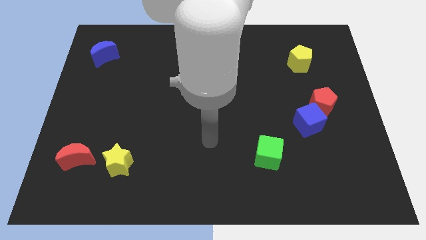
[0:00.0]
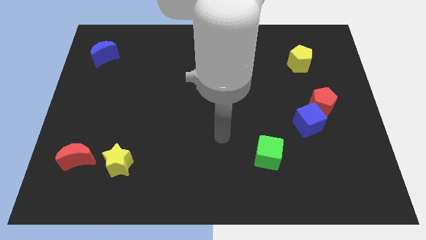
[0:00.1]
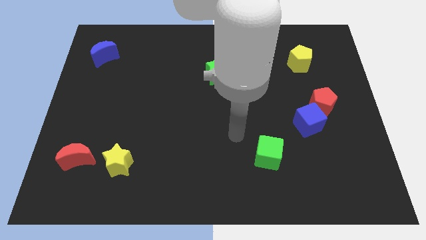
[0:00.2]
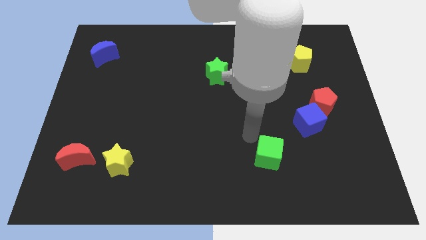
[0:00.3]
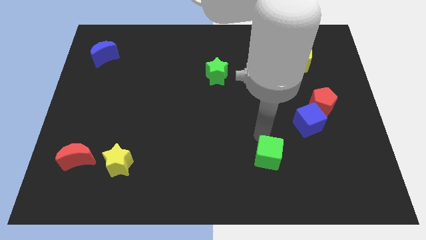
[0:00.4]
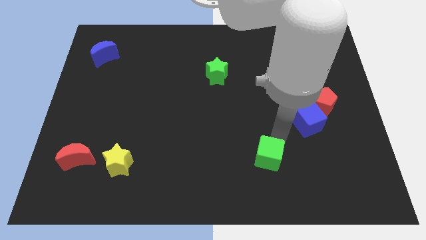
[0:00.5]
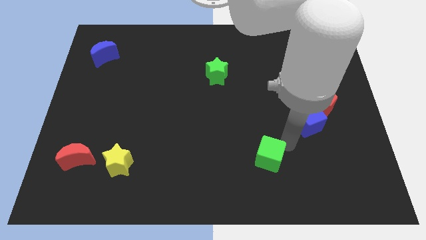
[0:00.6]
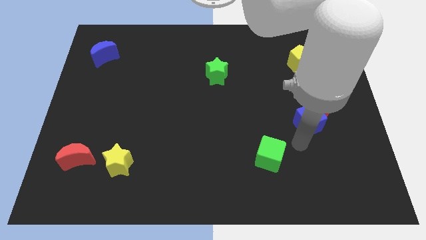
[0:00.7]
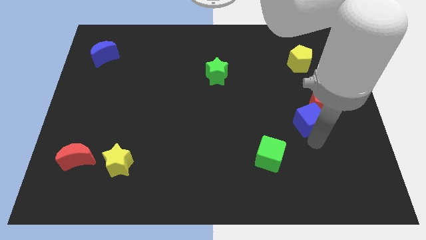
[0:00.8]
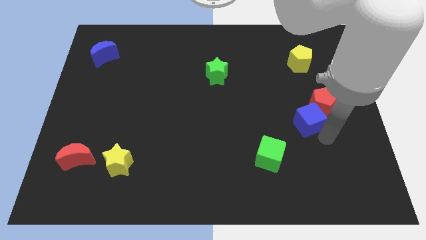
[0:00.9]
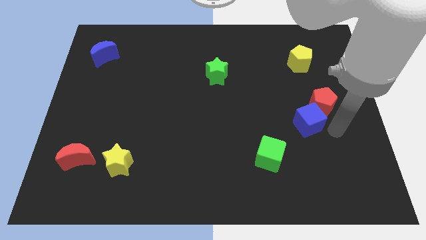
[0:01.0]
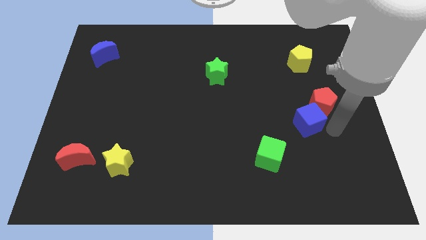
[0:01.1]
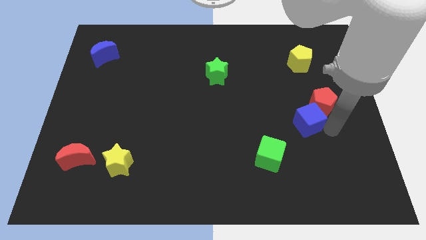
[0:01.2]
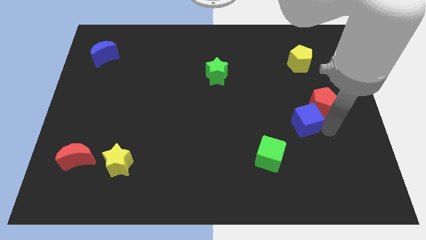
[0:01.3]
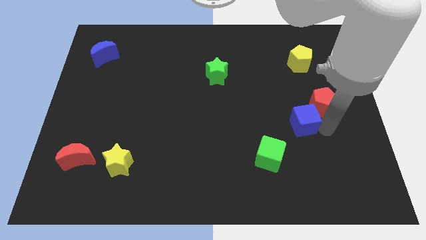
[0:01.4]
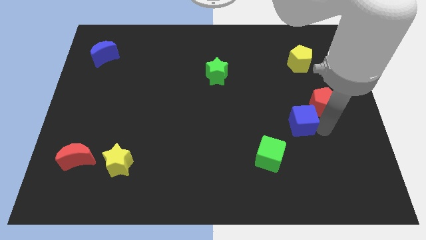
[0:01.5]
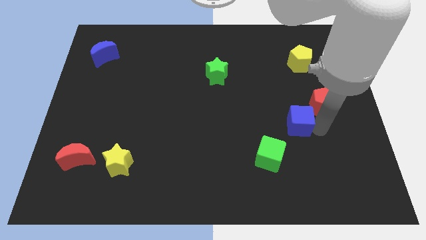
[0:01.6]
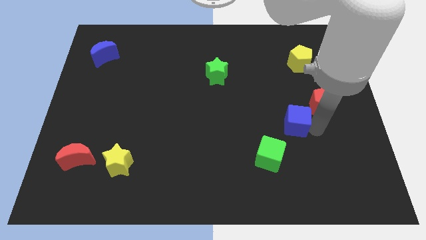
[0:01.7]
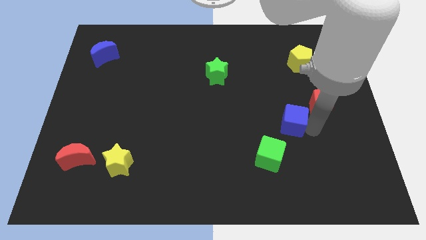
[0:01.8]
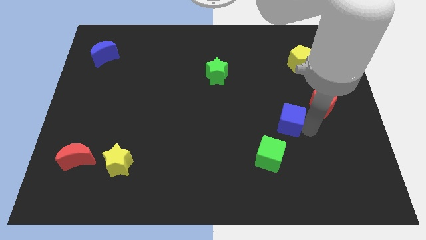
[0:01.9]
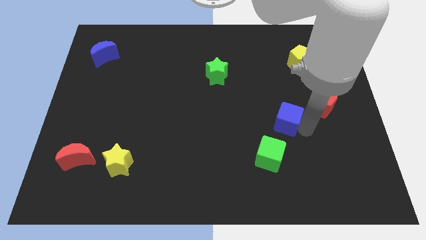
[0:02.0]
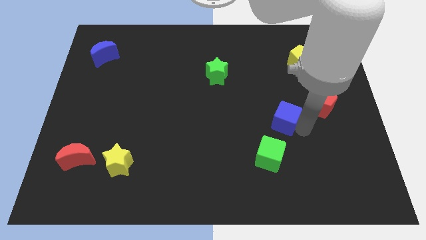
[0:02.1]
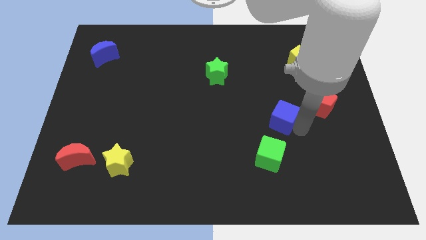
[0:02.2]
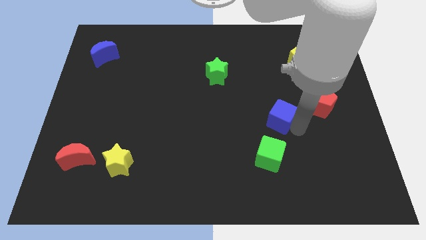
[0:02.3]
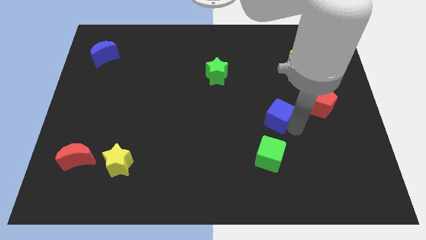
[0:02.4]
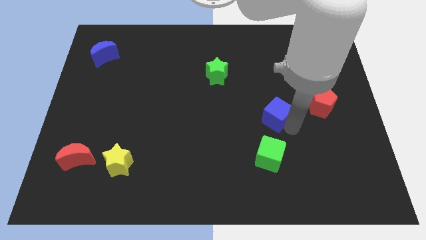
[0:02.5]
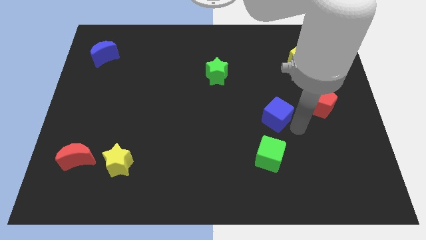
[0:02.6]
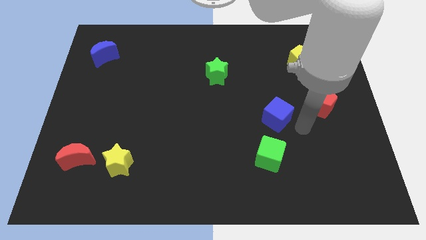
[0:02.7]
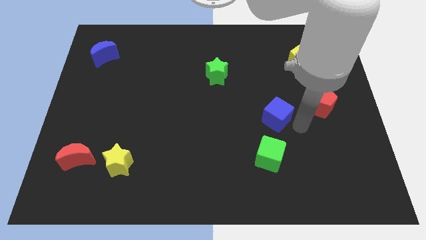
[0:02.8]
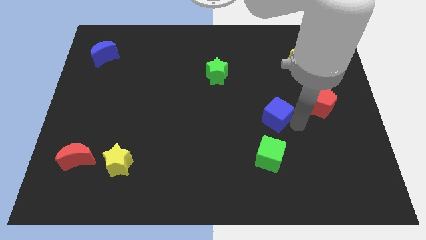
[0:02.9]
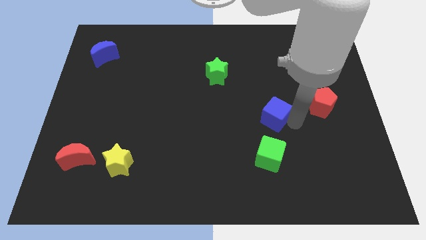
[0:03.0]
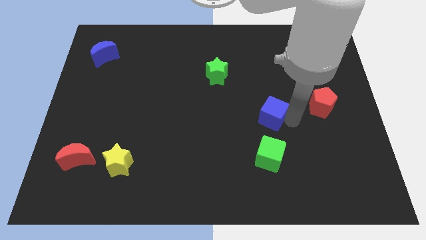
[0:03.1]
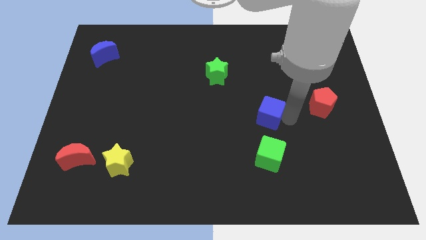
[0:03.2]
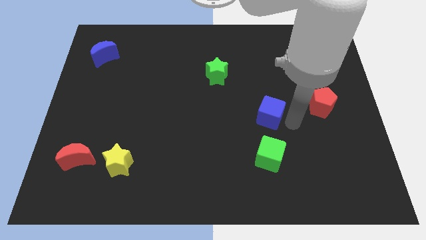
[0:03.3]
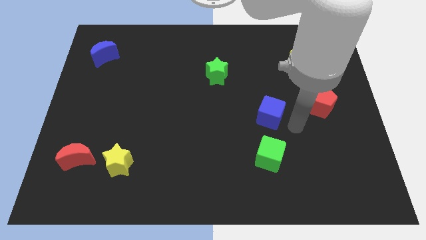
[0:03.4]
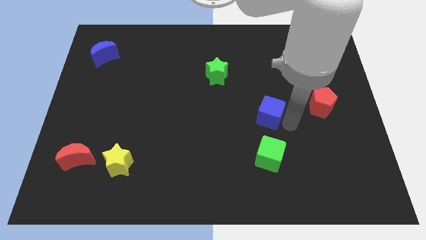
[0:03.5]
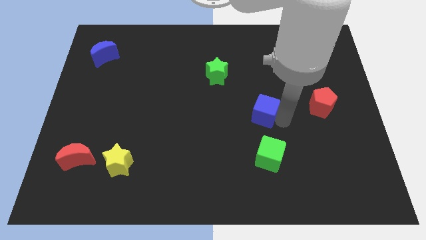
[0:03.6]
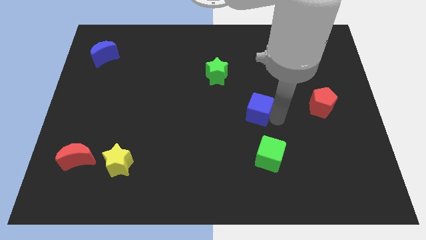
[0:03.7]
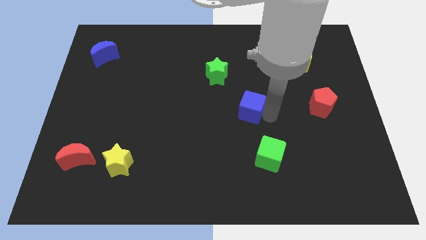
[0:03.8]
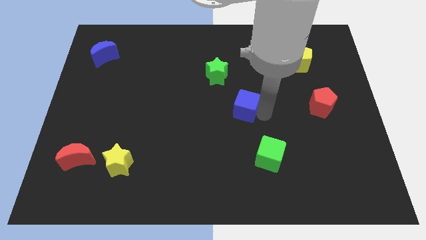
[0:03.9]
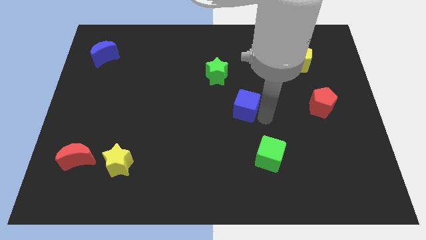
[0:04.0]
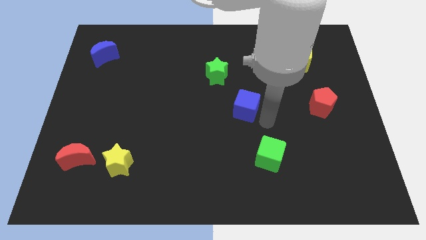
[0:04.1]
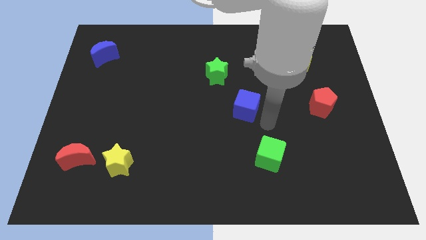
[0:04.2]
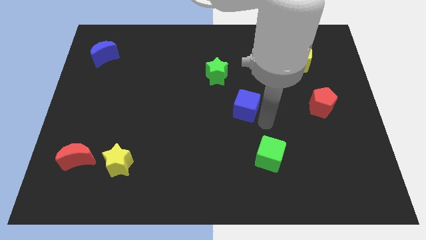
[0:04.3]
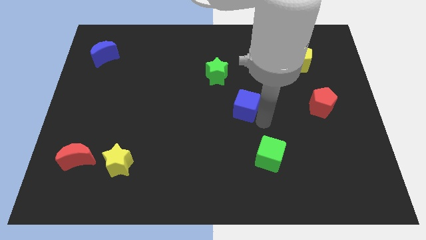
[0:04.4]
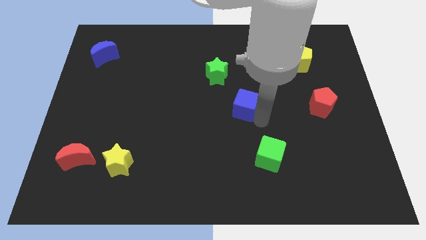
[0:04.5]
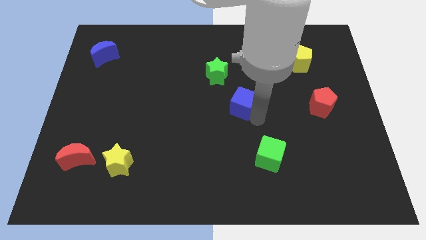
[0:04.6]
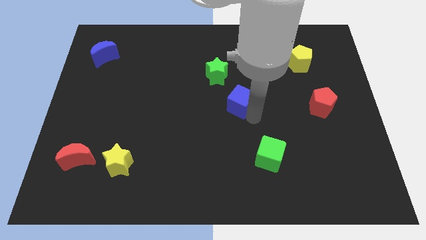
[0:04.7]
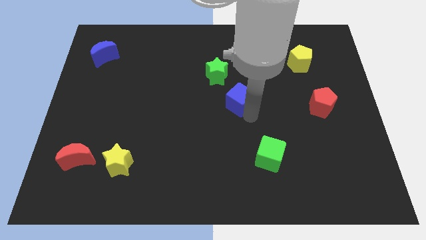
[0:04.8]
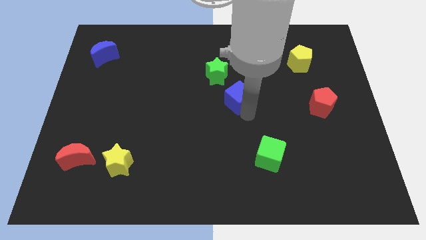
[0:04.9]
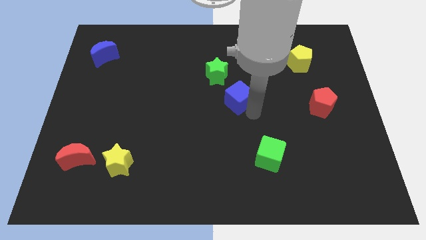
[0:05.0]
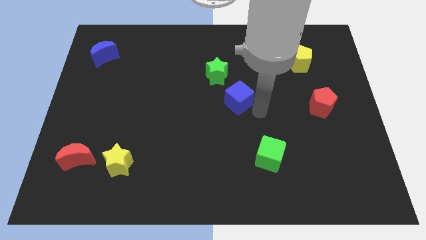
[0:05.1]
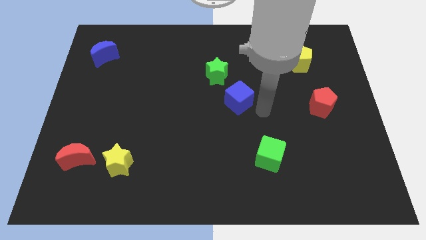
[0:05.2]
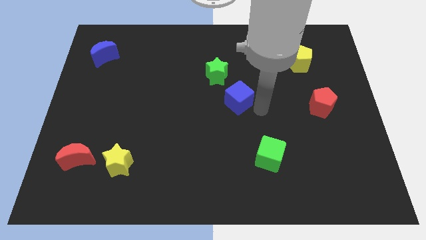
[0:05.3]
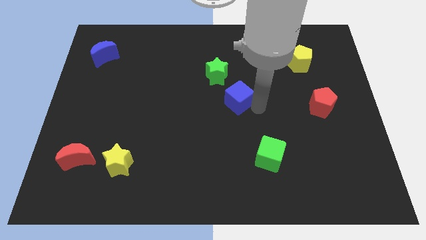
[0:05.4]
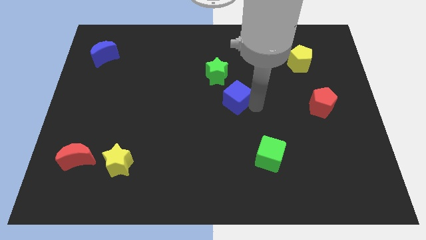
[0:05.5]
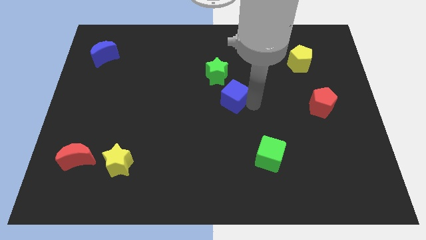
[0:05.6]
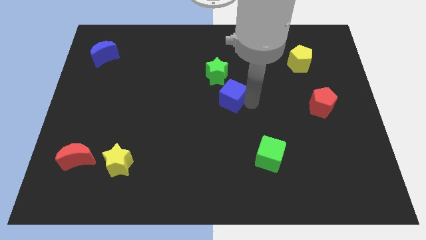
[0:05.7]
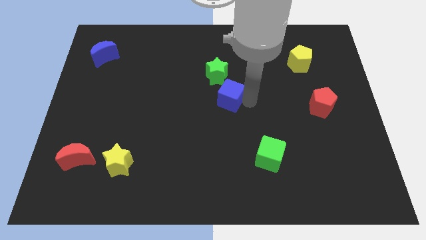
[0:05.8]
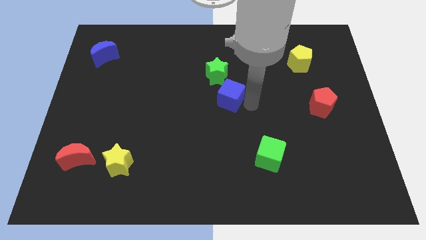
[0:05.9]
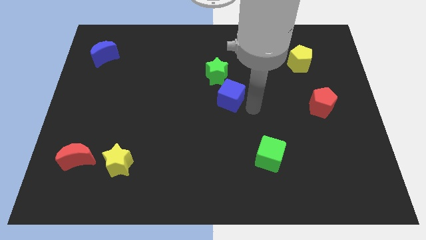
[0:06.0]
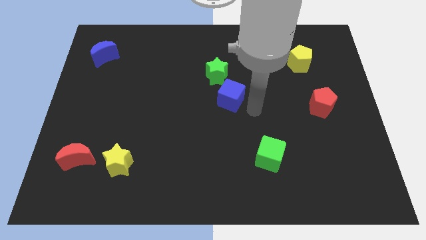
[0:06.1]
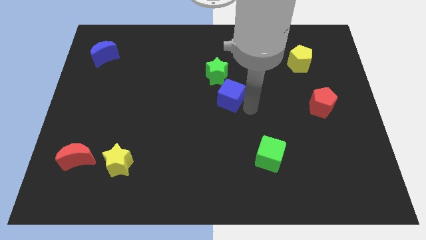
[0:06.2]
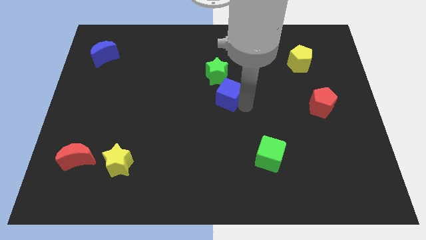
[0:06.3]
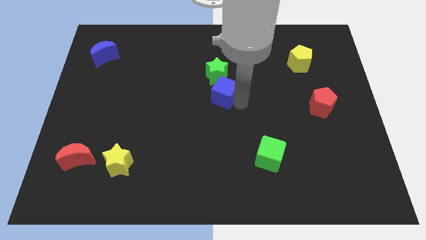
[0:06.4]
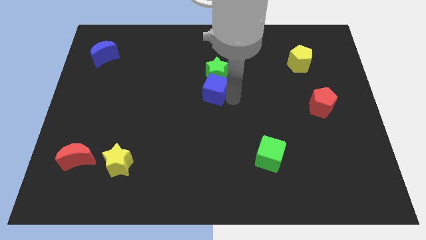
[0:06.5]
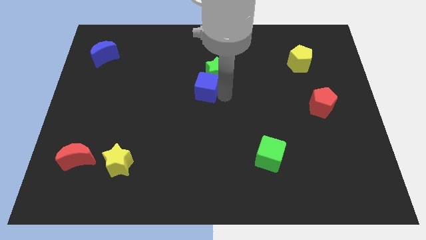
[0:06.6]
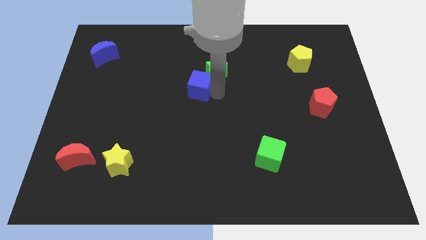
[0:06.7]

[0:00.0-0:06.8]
slide the blue cube to the left side of the green star

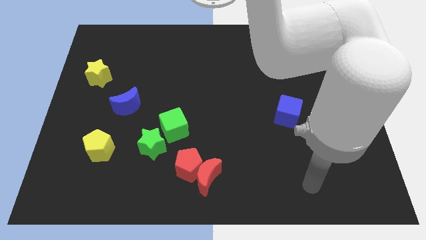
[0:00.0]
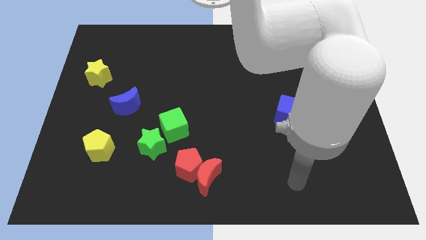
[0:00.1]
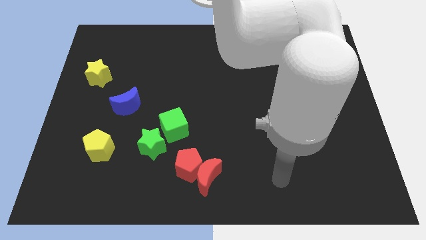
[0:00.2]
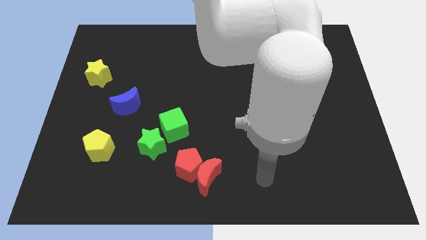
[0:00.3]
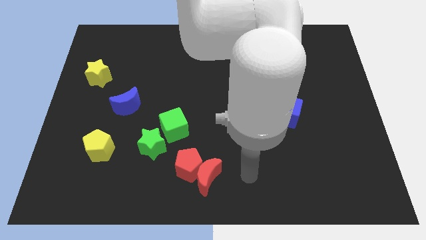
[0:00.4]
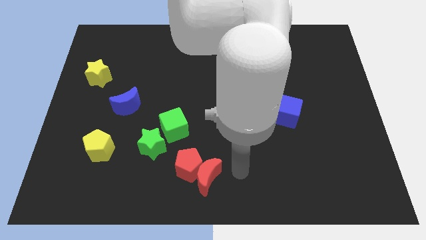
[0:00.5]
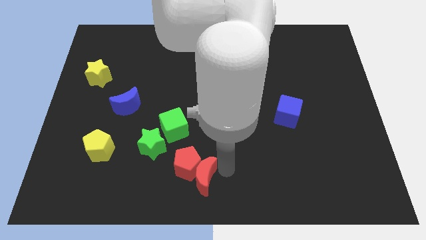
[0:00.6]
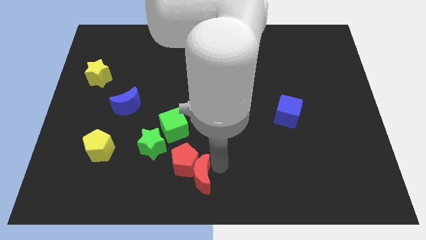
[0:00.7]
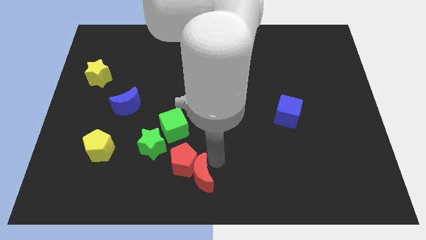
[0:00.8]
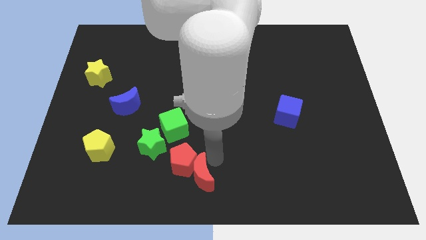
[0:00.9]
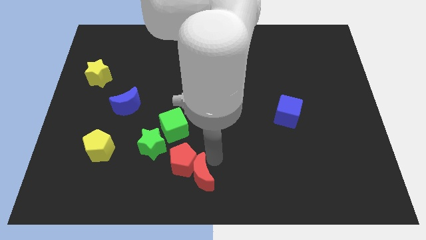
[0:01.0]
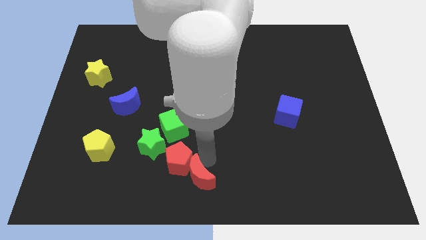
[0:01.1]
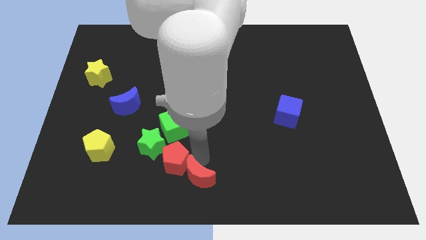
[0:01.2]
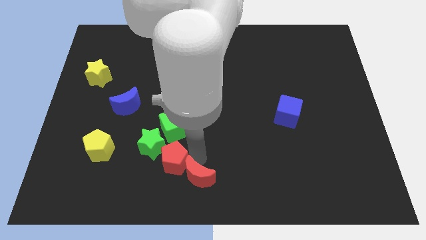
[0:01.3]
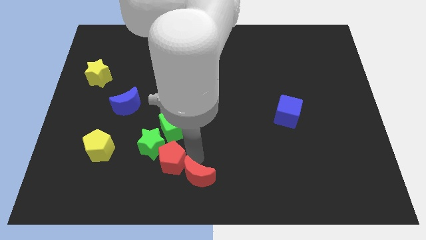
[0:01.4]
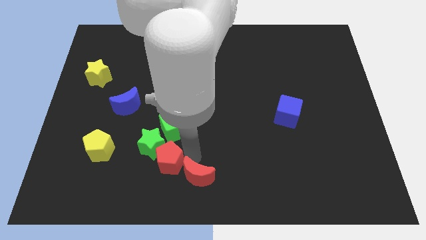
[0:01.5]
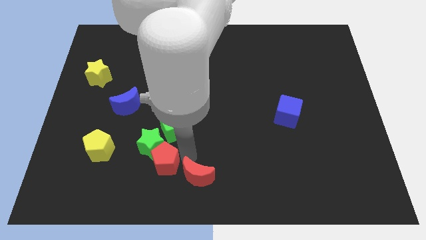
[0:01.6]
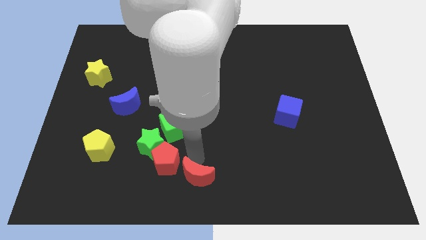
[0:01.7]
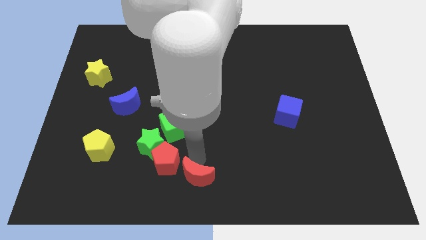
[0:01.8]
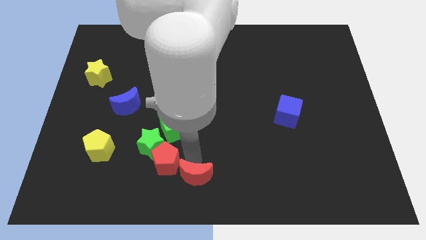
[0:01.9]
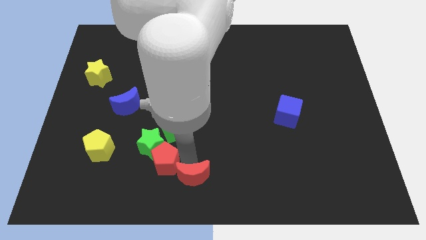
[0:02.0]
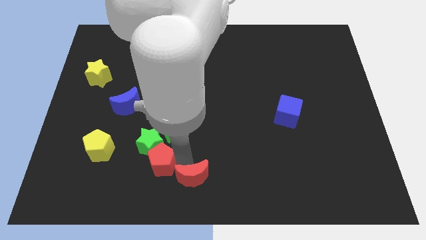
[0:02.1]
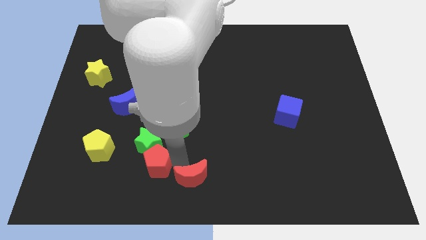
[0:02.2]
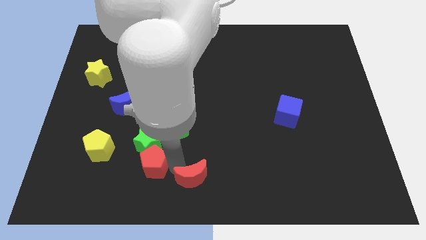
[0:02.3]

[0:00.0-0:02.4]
move the red pentagon to the bottom left of the green star
